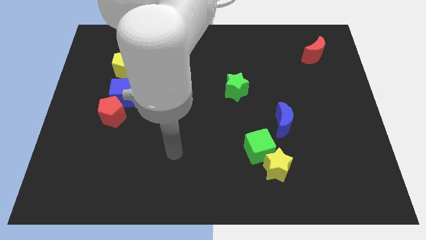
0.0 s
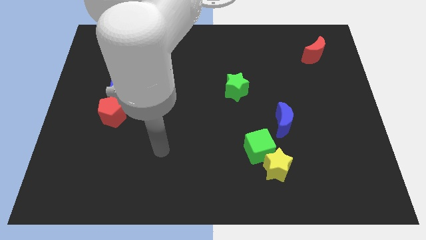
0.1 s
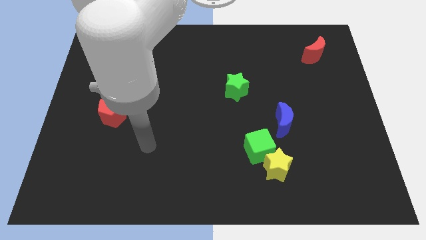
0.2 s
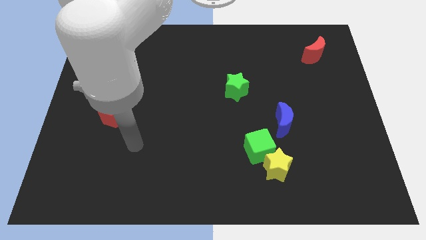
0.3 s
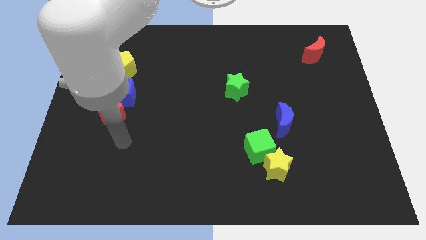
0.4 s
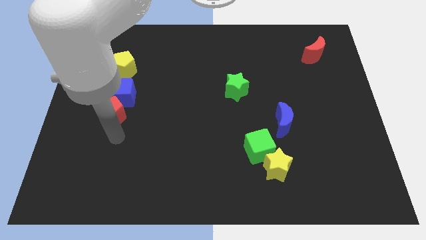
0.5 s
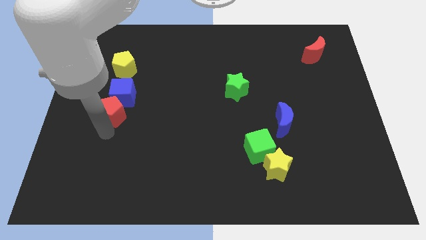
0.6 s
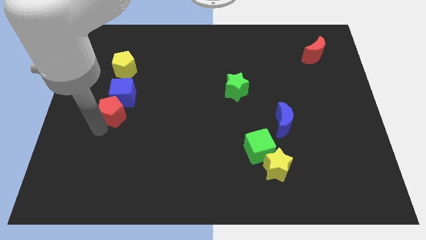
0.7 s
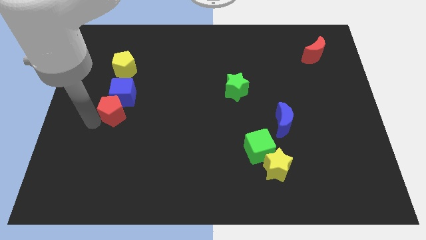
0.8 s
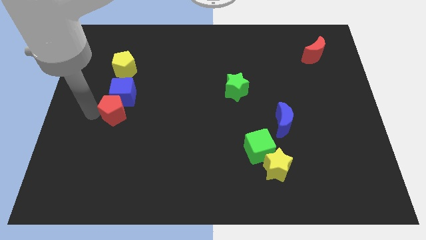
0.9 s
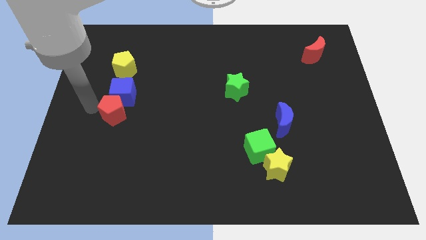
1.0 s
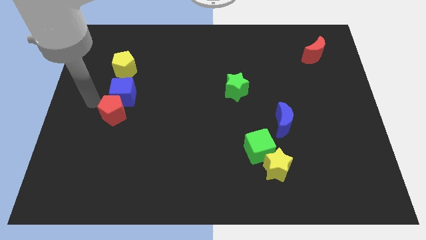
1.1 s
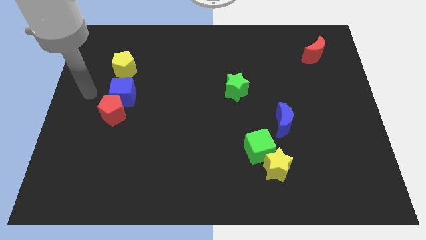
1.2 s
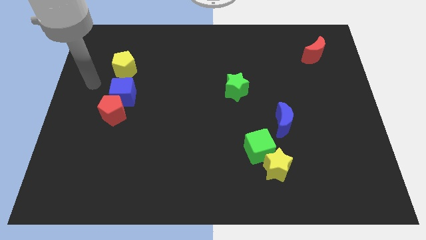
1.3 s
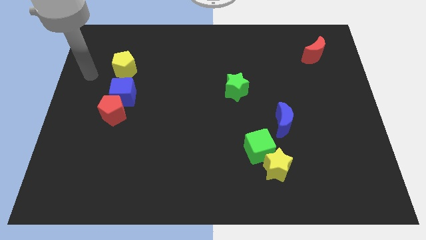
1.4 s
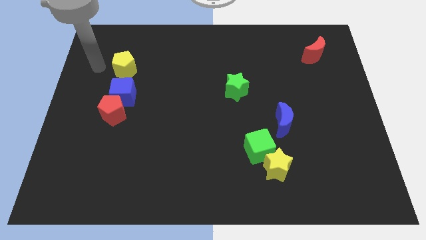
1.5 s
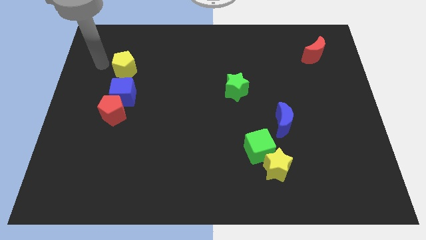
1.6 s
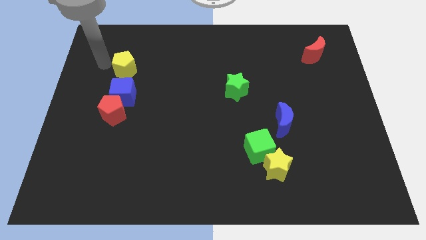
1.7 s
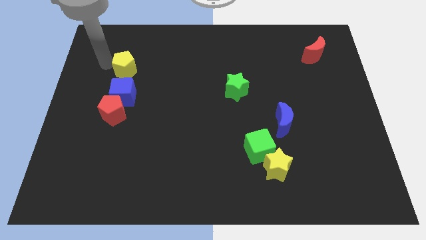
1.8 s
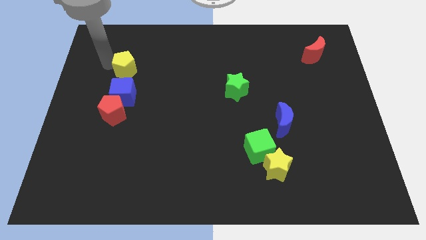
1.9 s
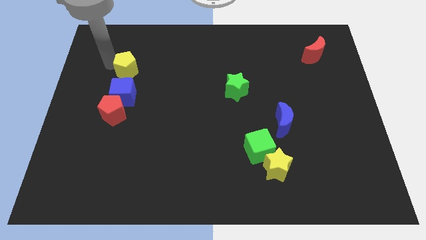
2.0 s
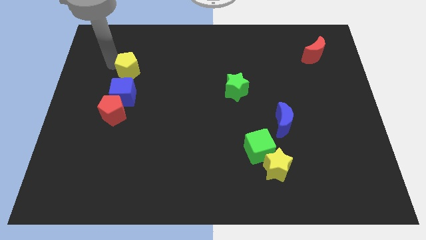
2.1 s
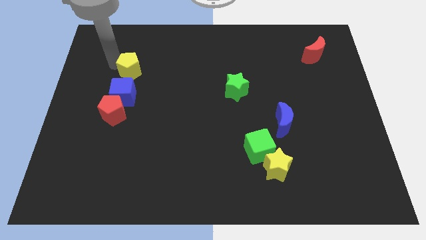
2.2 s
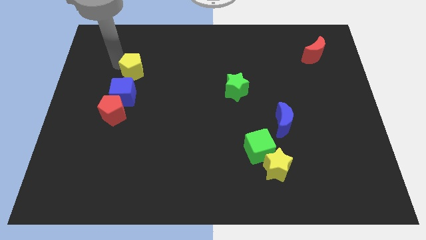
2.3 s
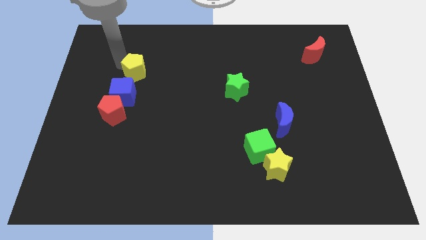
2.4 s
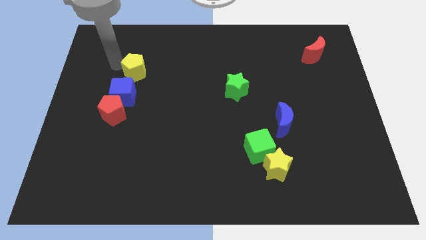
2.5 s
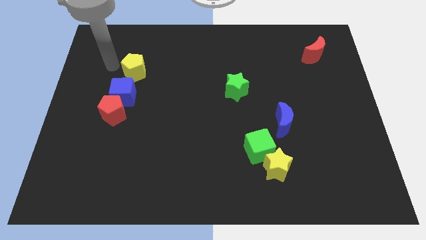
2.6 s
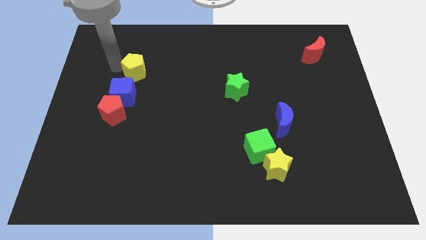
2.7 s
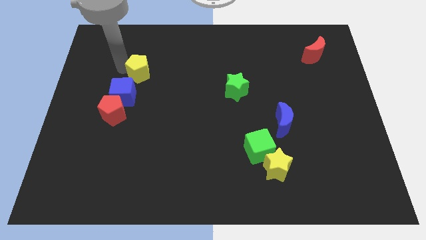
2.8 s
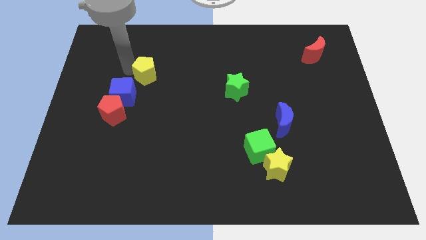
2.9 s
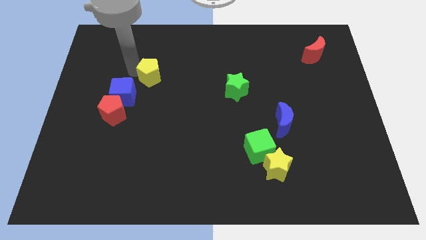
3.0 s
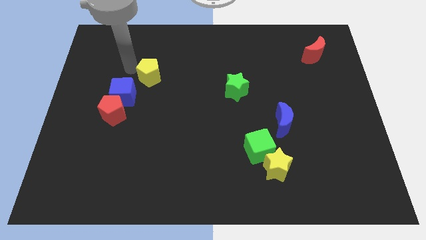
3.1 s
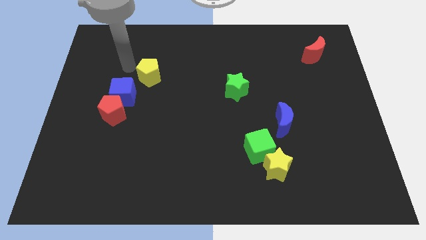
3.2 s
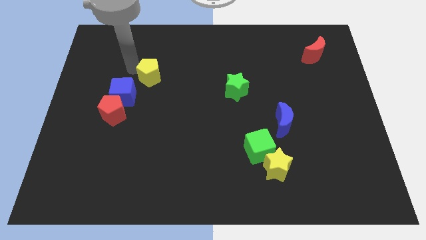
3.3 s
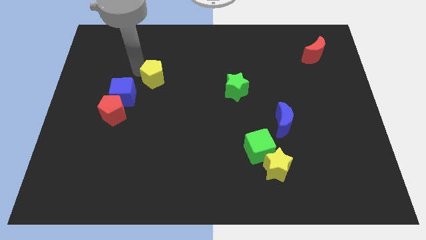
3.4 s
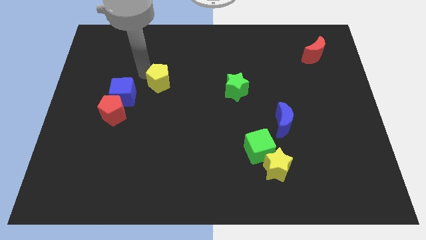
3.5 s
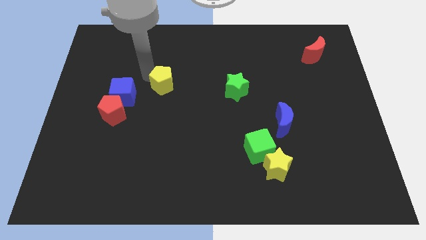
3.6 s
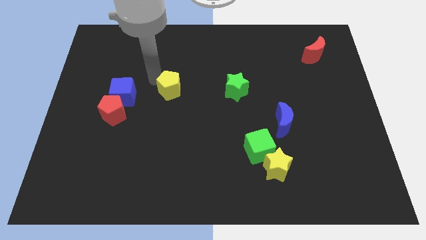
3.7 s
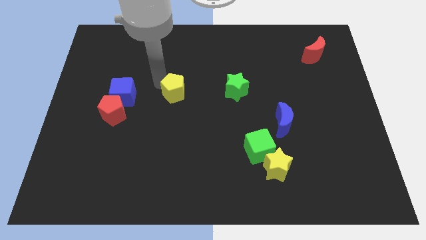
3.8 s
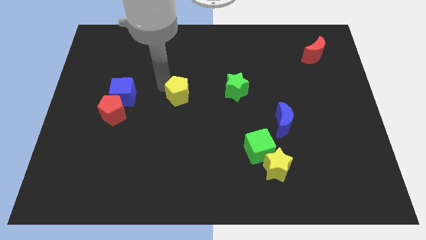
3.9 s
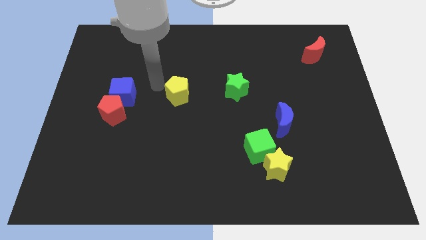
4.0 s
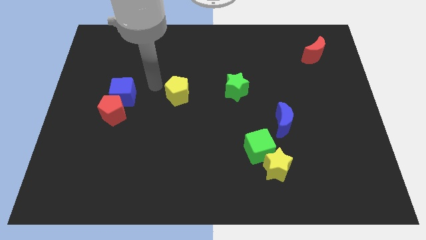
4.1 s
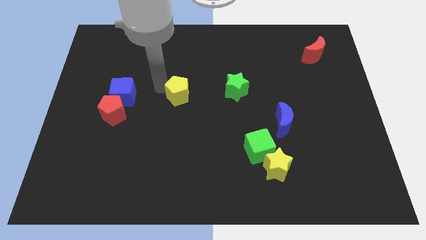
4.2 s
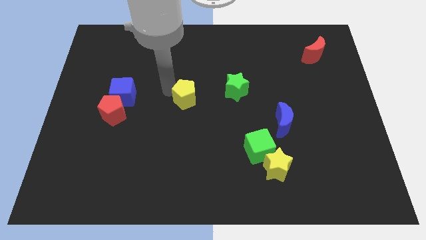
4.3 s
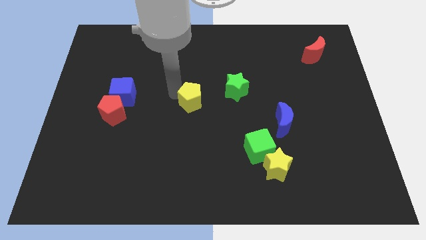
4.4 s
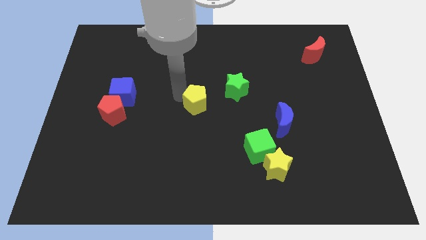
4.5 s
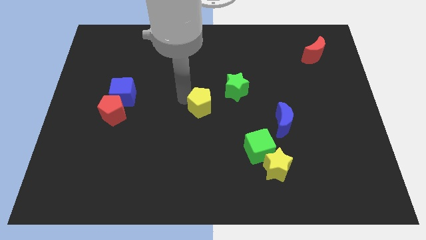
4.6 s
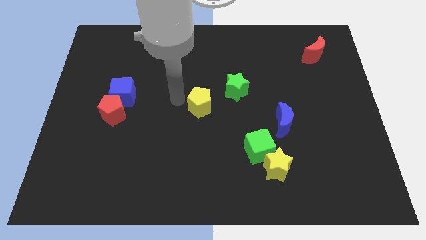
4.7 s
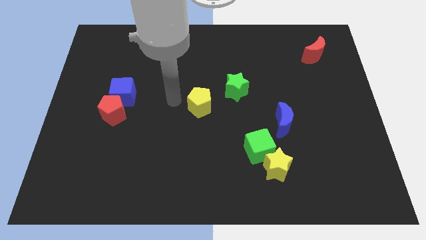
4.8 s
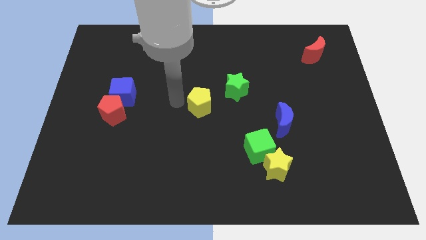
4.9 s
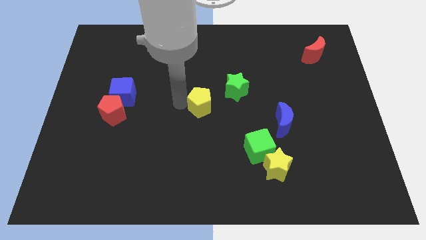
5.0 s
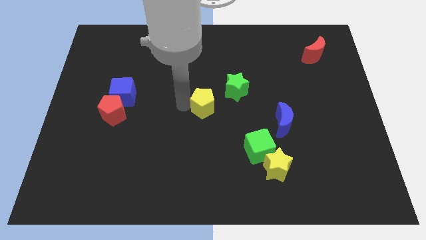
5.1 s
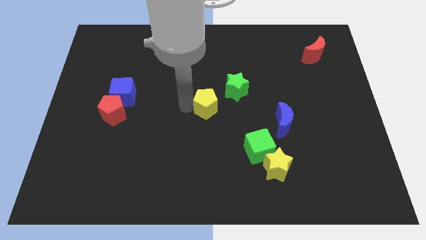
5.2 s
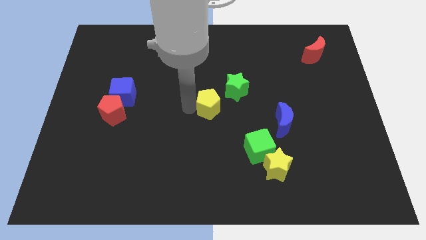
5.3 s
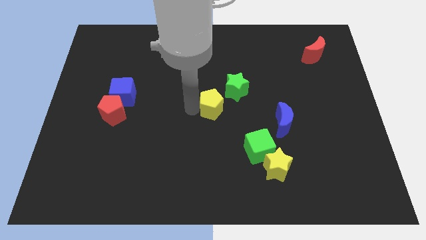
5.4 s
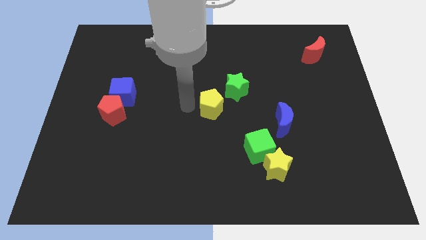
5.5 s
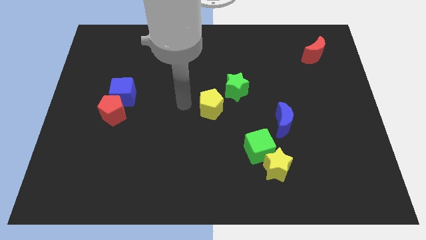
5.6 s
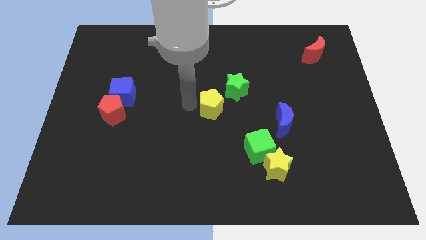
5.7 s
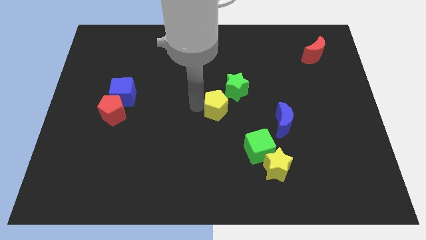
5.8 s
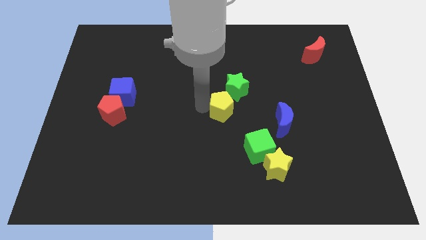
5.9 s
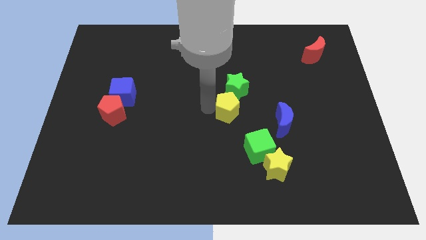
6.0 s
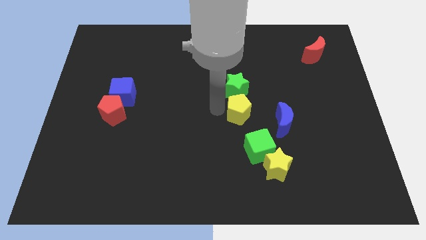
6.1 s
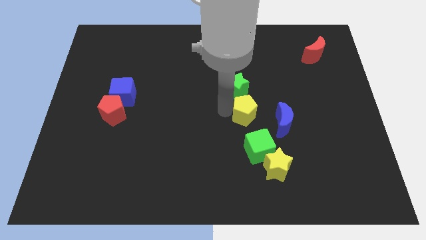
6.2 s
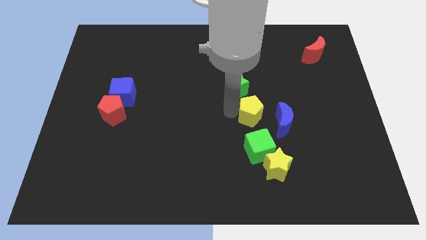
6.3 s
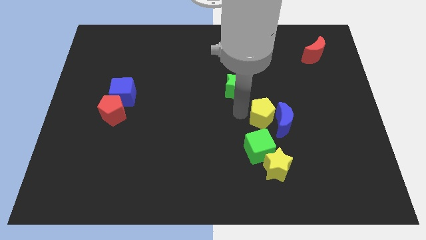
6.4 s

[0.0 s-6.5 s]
slide the yellow pentagon close to the blue moon

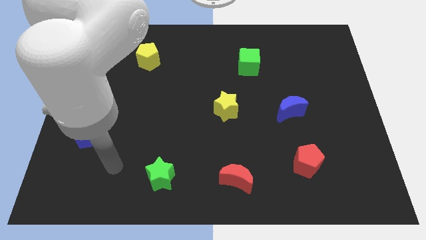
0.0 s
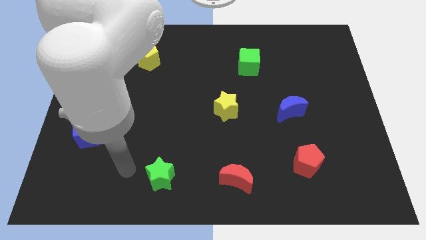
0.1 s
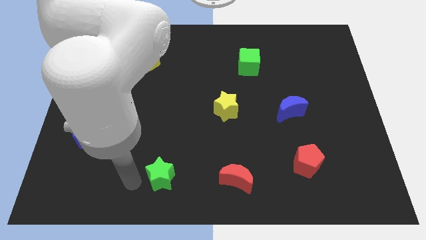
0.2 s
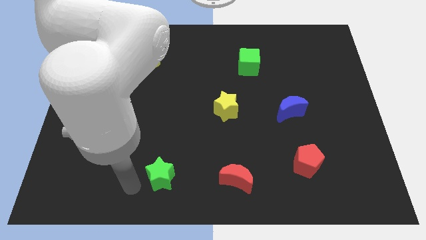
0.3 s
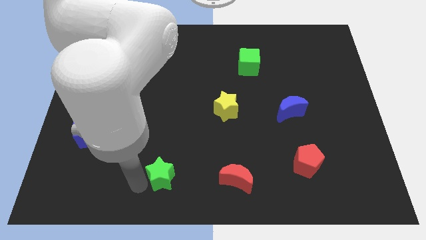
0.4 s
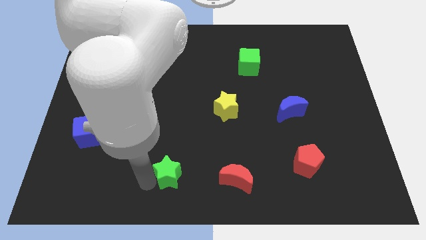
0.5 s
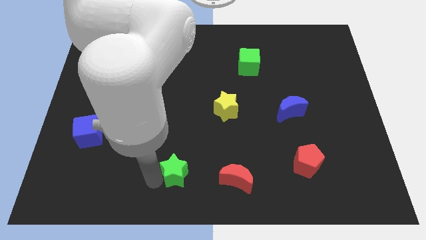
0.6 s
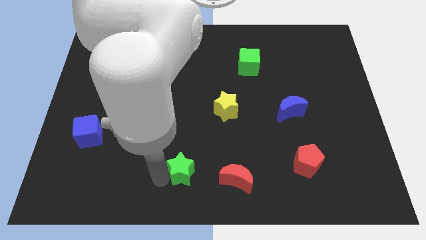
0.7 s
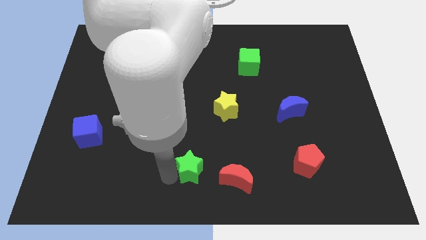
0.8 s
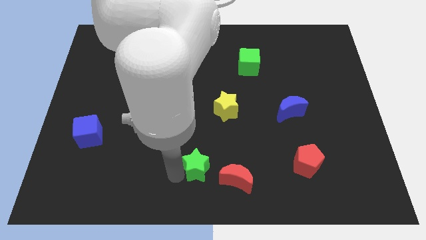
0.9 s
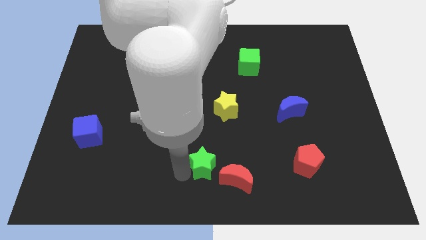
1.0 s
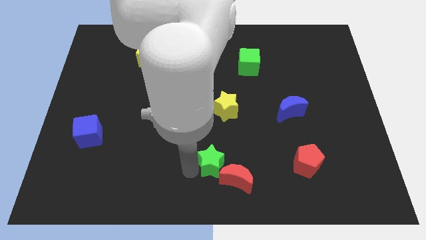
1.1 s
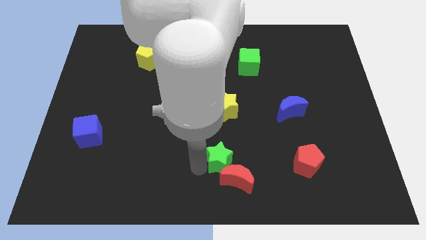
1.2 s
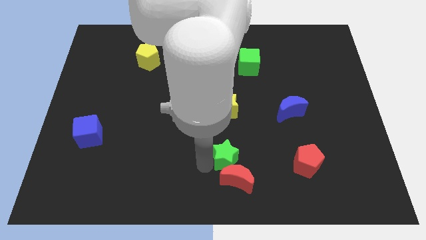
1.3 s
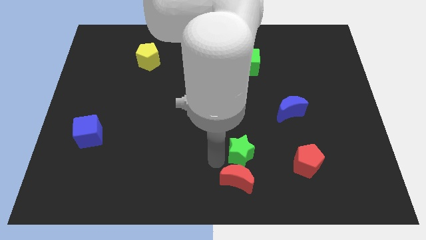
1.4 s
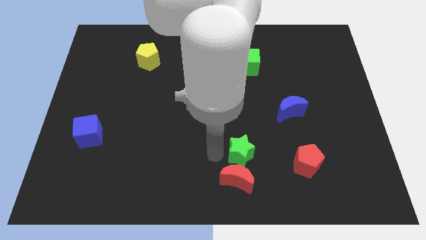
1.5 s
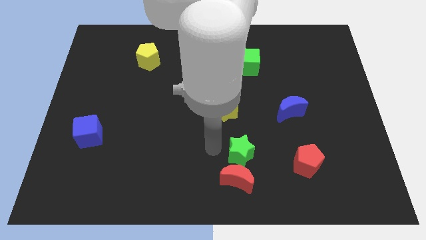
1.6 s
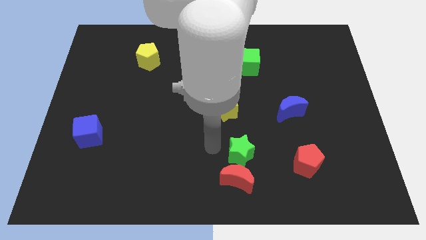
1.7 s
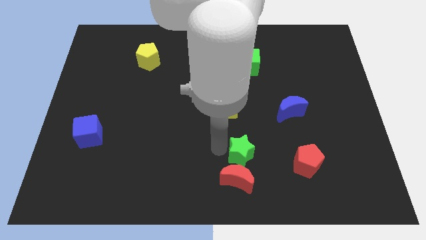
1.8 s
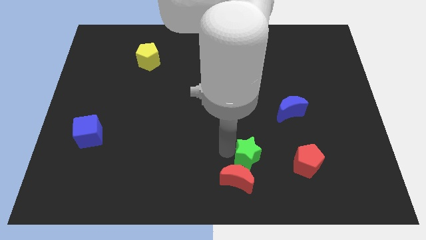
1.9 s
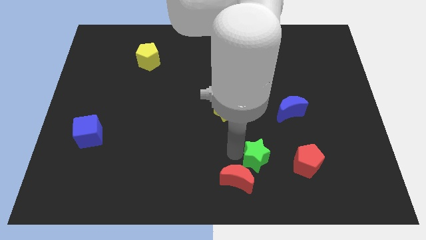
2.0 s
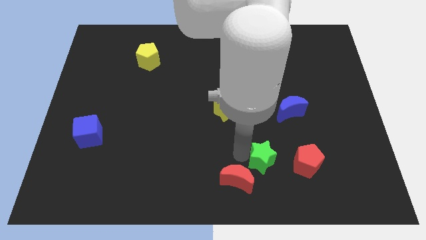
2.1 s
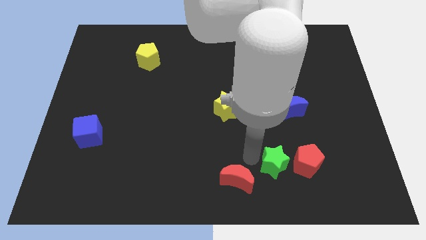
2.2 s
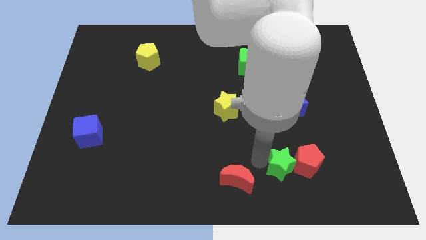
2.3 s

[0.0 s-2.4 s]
put the green star close to the red pentagon
